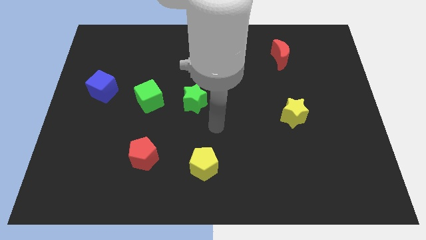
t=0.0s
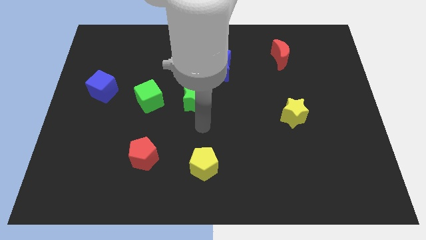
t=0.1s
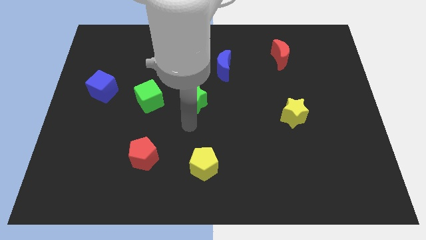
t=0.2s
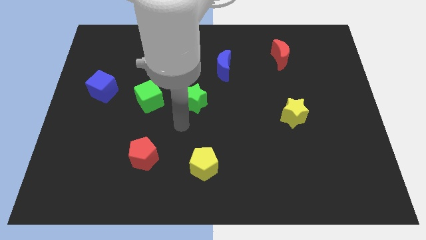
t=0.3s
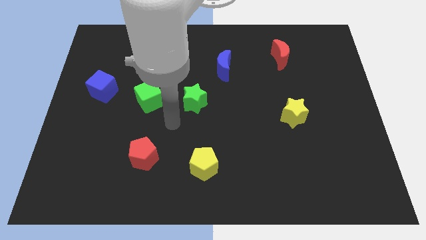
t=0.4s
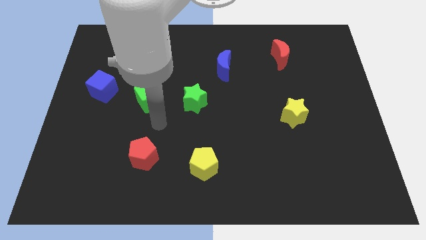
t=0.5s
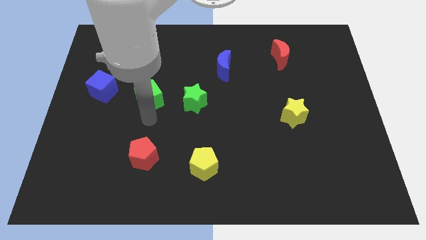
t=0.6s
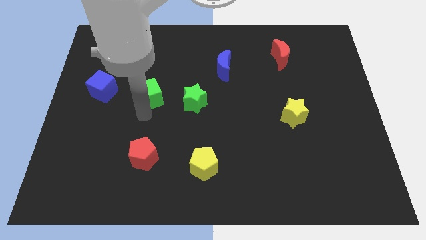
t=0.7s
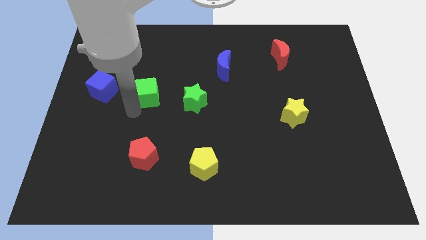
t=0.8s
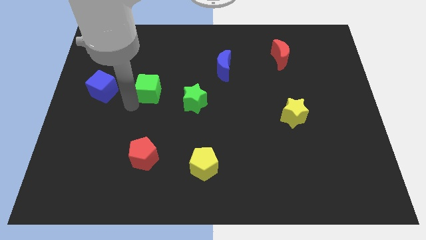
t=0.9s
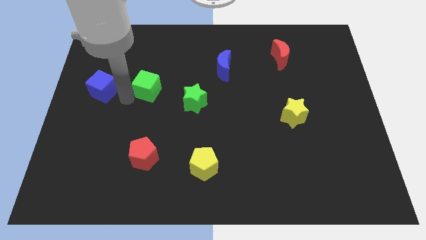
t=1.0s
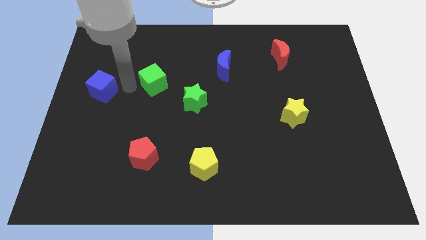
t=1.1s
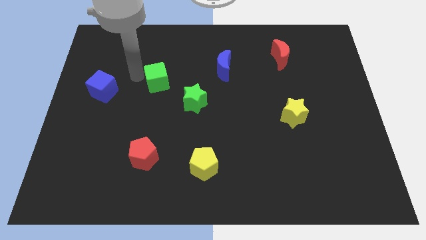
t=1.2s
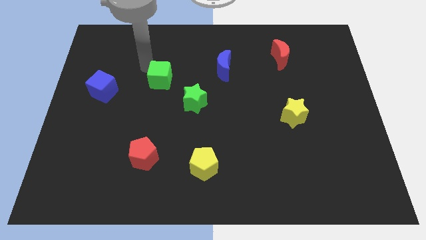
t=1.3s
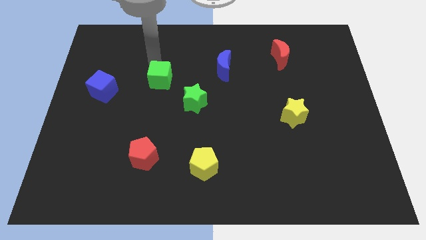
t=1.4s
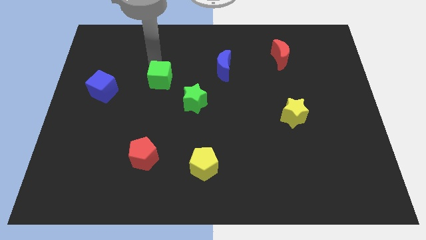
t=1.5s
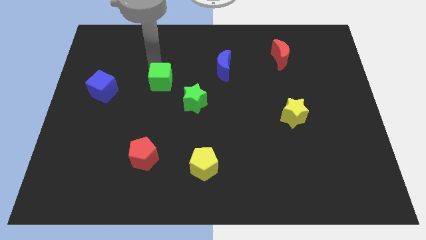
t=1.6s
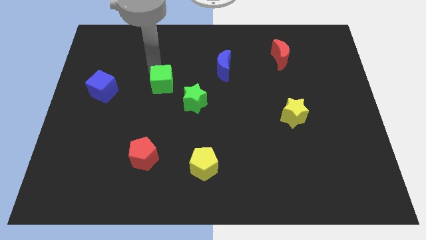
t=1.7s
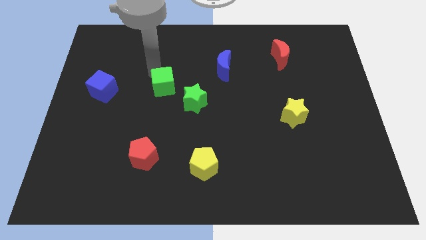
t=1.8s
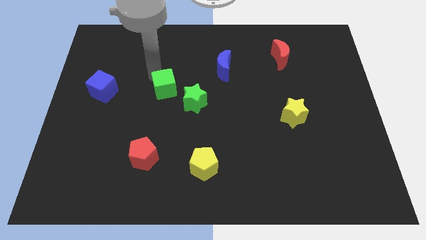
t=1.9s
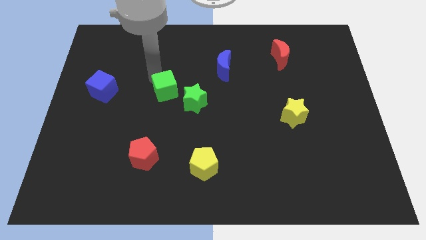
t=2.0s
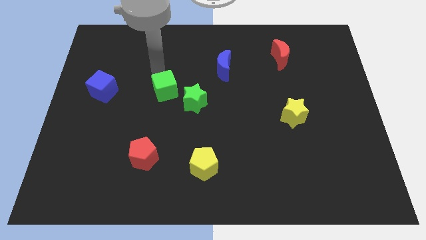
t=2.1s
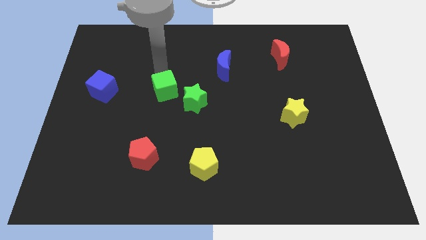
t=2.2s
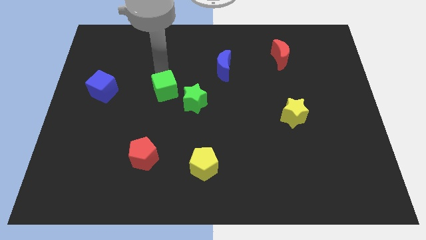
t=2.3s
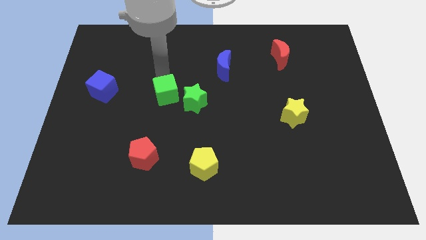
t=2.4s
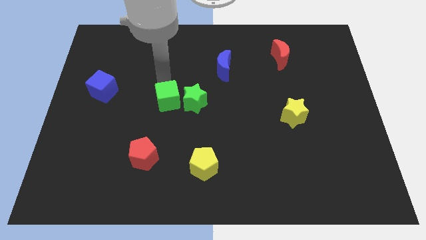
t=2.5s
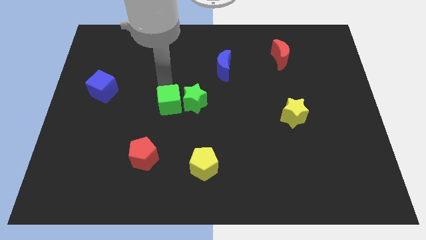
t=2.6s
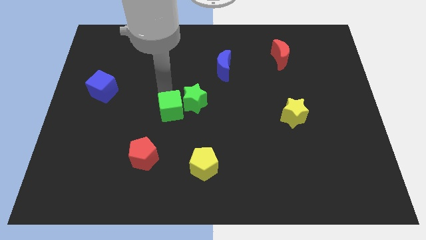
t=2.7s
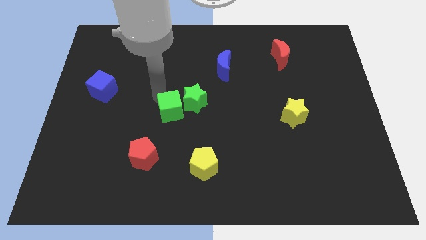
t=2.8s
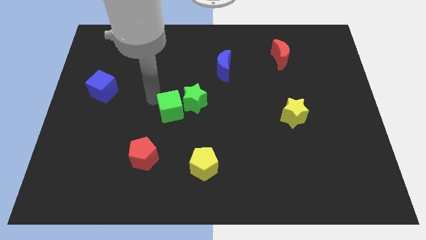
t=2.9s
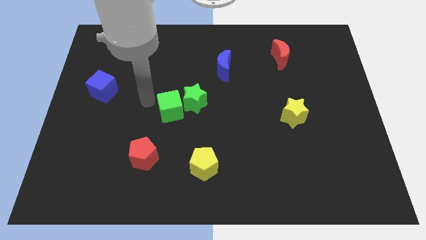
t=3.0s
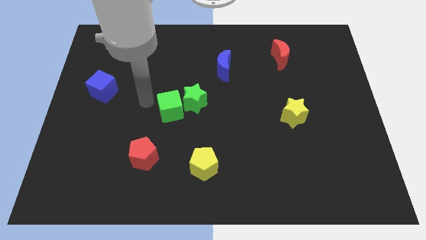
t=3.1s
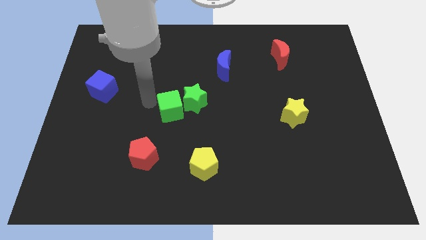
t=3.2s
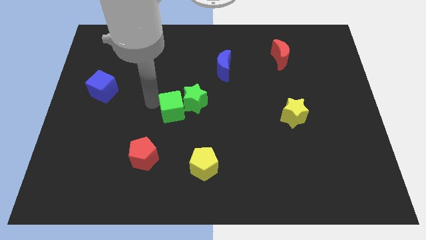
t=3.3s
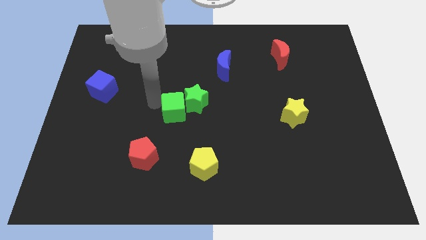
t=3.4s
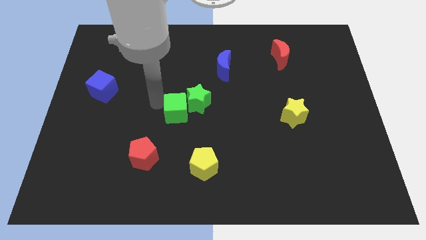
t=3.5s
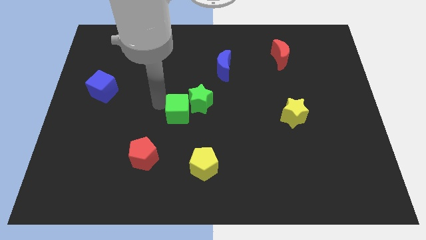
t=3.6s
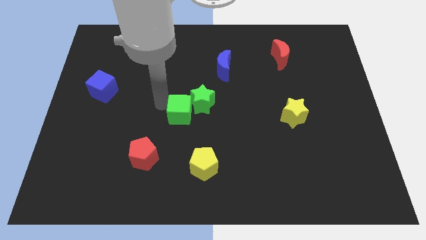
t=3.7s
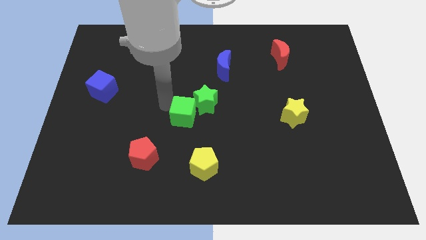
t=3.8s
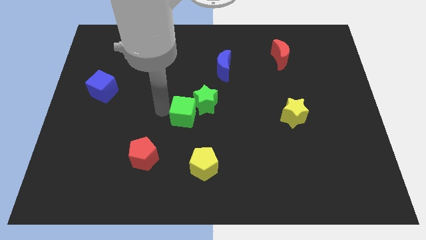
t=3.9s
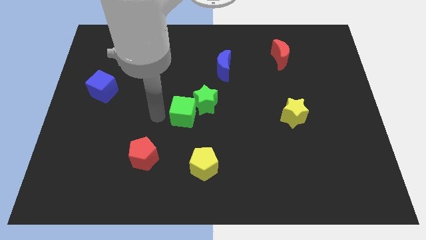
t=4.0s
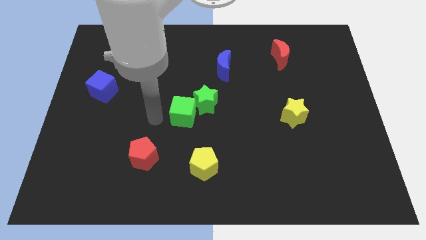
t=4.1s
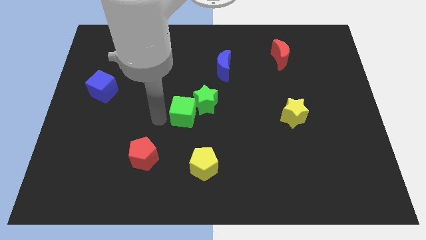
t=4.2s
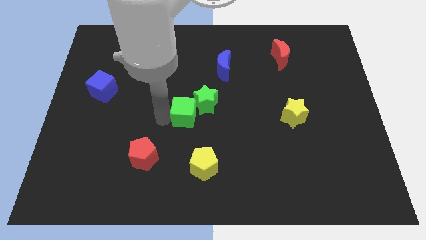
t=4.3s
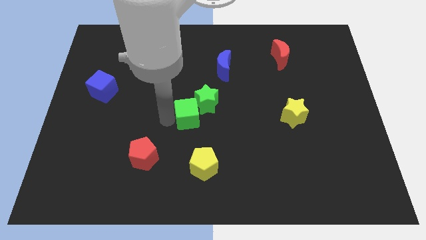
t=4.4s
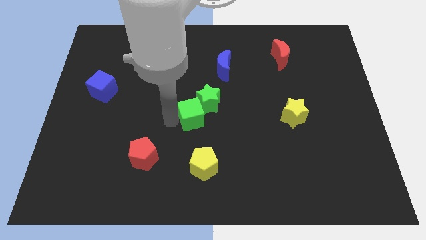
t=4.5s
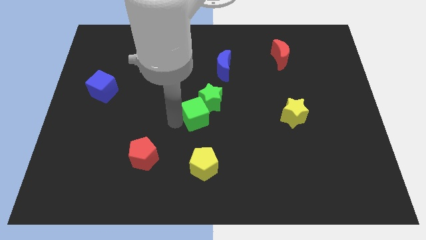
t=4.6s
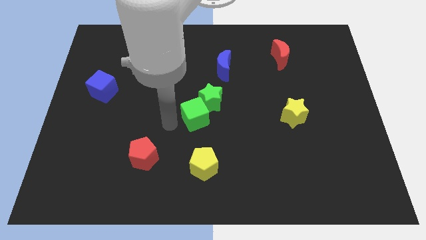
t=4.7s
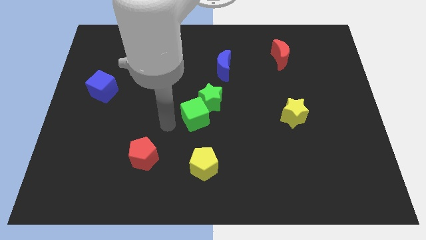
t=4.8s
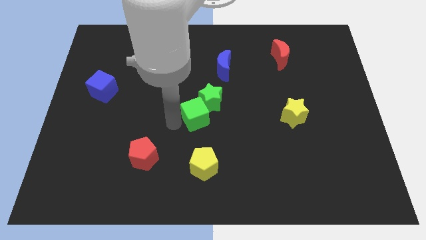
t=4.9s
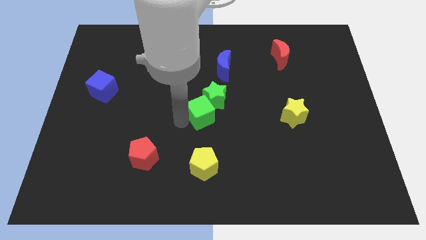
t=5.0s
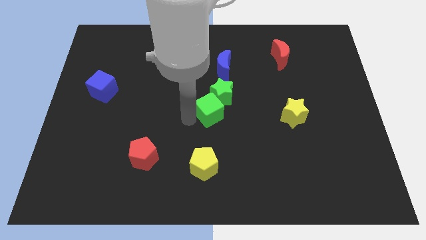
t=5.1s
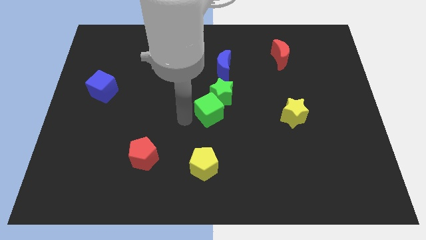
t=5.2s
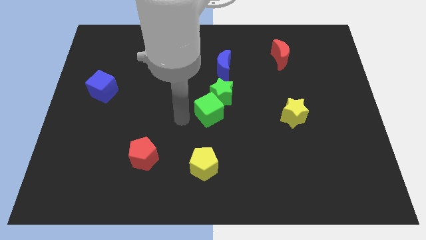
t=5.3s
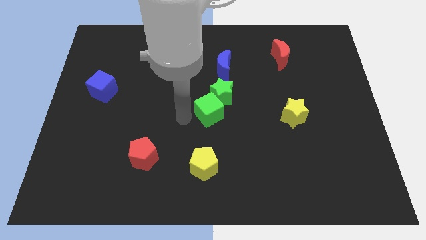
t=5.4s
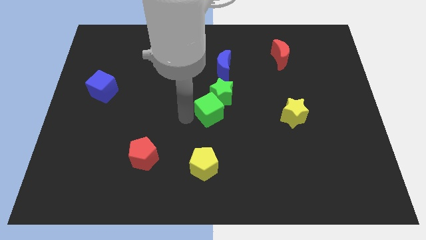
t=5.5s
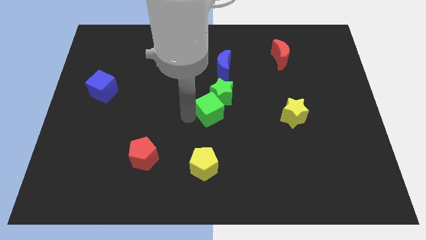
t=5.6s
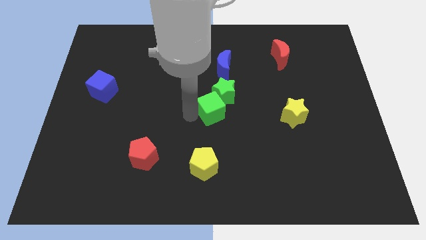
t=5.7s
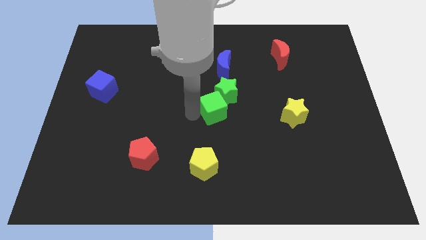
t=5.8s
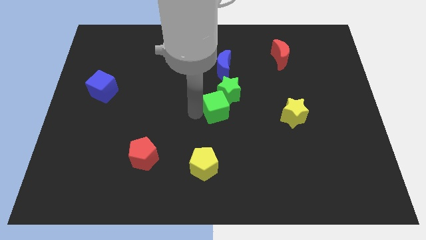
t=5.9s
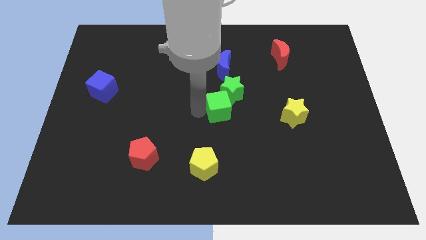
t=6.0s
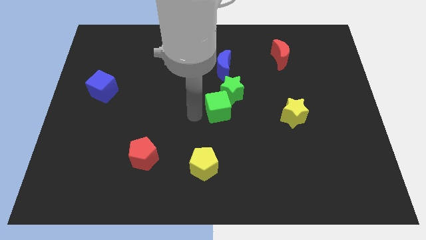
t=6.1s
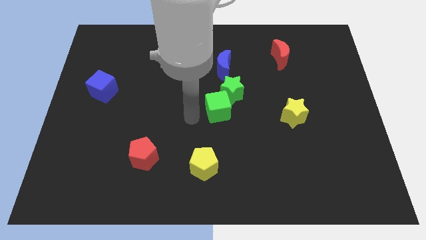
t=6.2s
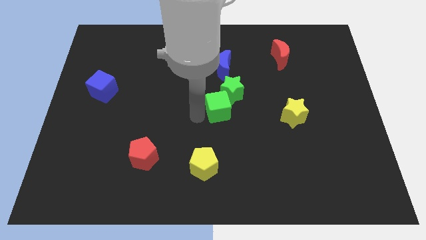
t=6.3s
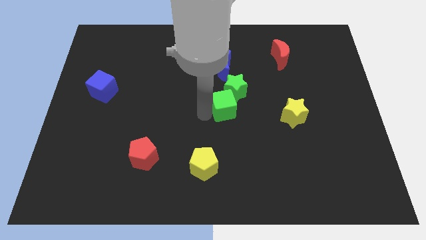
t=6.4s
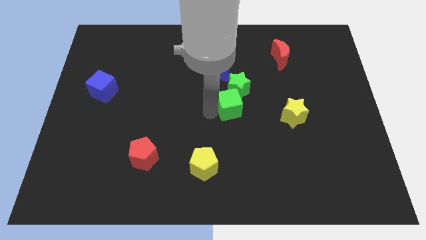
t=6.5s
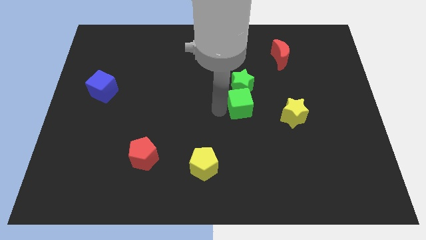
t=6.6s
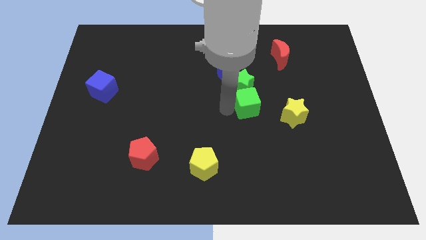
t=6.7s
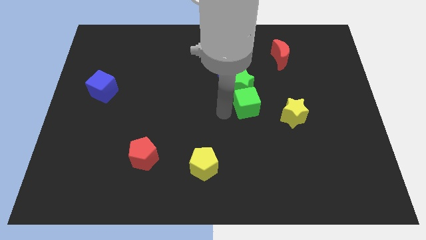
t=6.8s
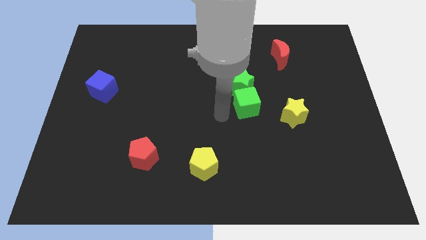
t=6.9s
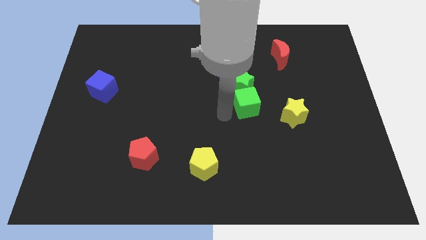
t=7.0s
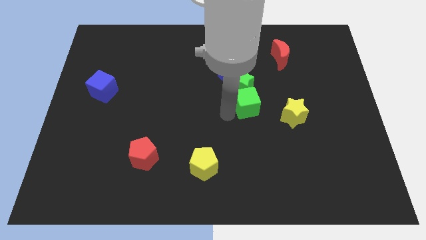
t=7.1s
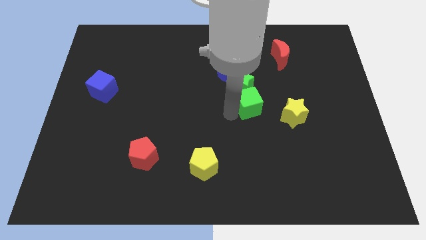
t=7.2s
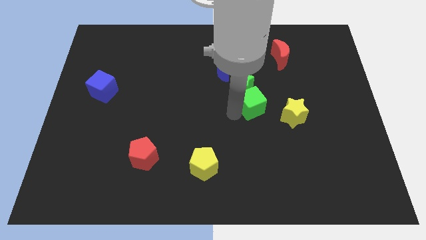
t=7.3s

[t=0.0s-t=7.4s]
put the green cube to the top left side of the yellow star
